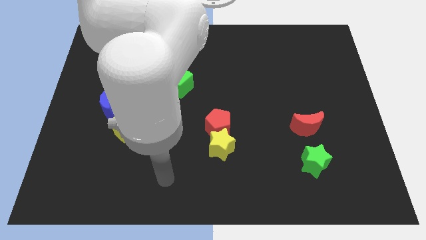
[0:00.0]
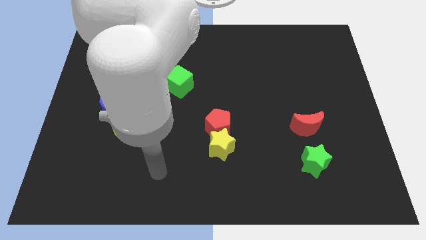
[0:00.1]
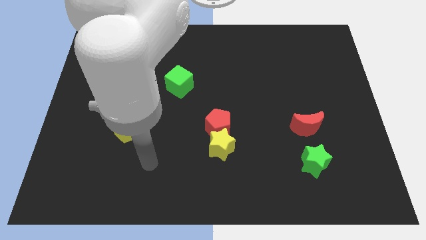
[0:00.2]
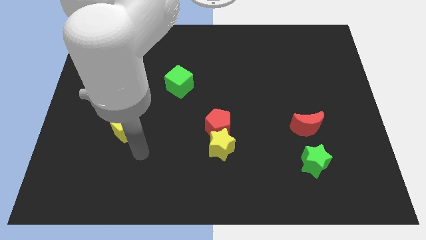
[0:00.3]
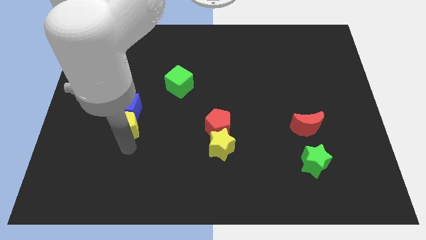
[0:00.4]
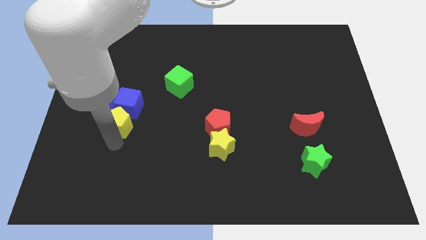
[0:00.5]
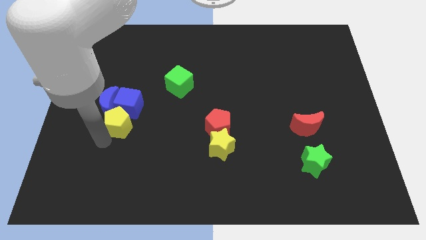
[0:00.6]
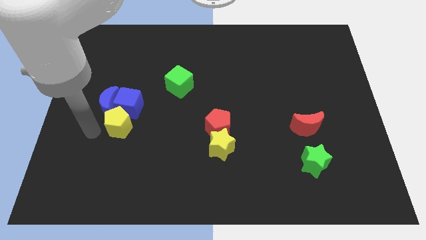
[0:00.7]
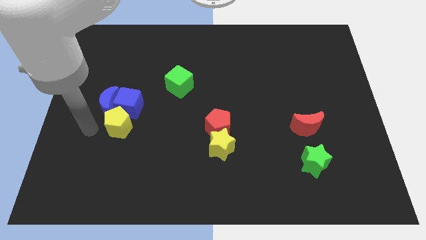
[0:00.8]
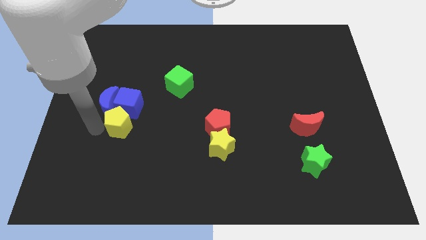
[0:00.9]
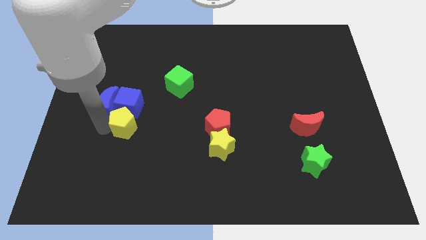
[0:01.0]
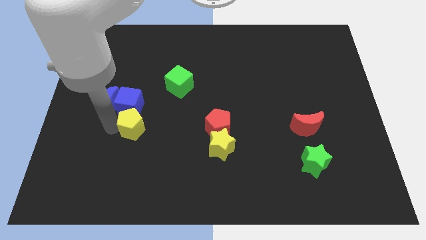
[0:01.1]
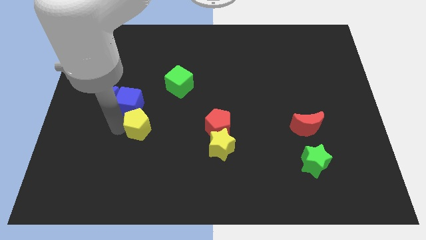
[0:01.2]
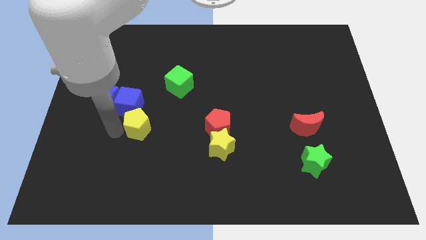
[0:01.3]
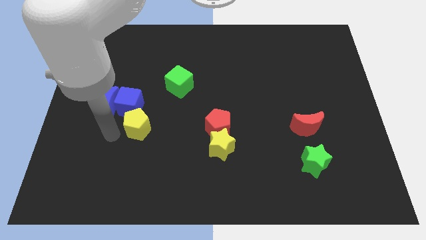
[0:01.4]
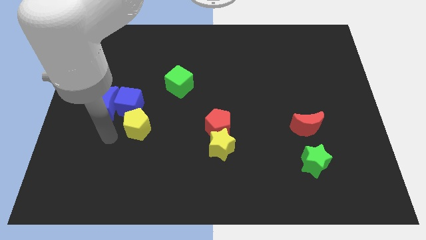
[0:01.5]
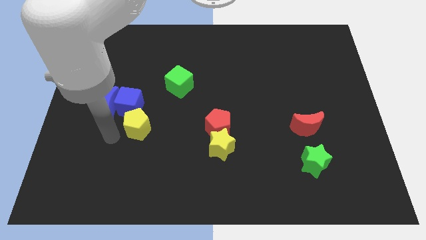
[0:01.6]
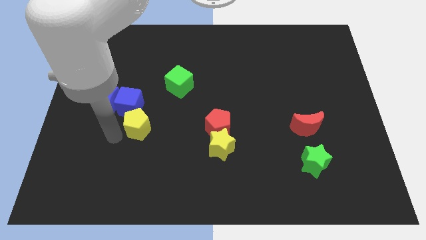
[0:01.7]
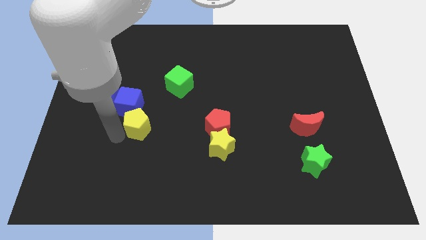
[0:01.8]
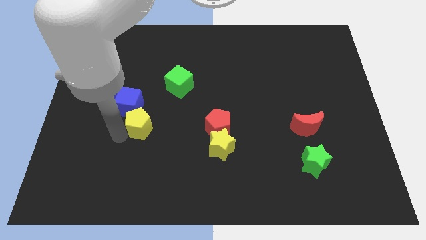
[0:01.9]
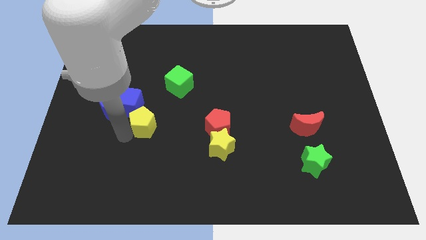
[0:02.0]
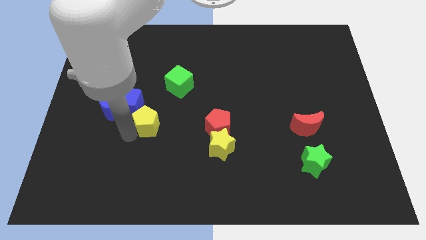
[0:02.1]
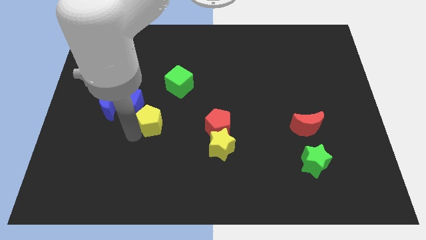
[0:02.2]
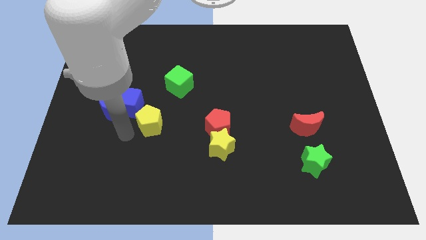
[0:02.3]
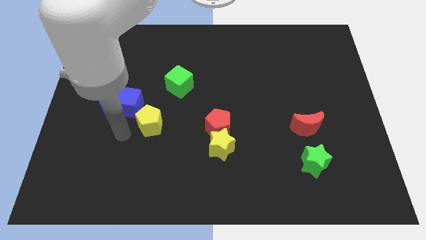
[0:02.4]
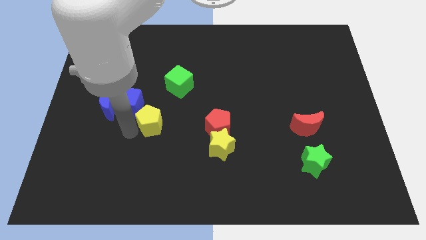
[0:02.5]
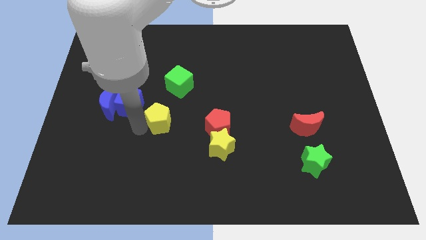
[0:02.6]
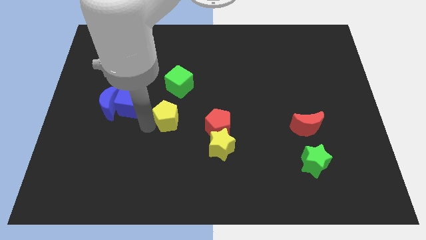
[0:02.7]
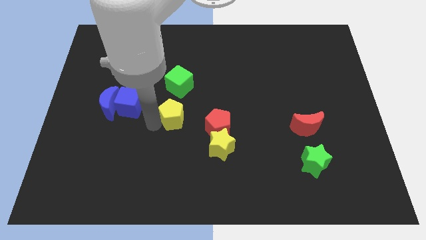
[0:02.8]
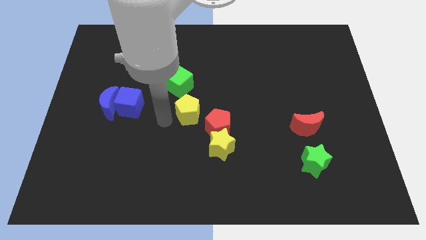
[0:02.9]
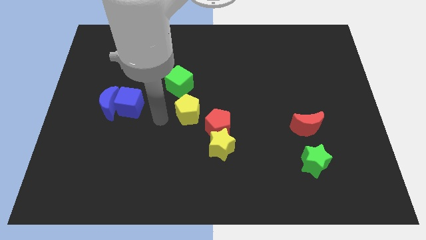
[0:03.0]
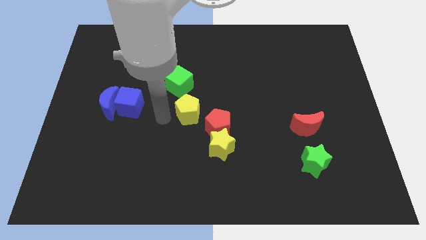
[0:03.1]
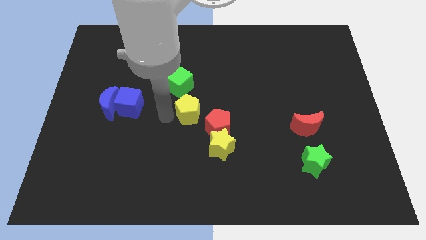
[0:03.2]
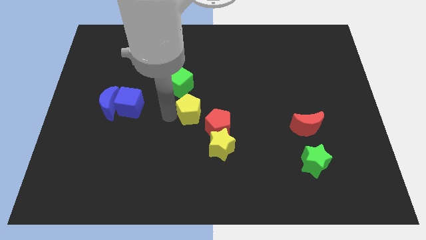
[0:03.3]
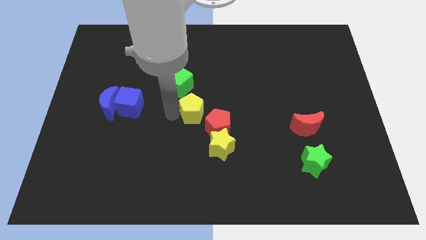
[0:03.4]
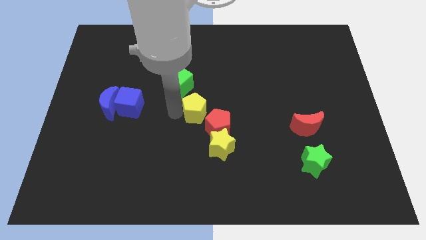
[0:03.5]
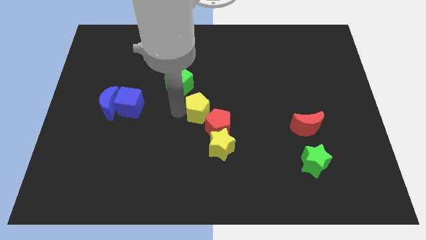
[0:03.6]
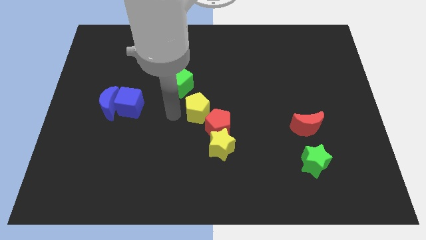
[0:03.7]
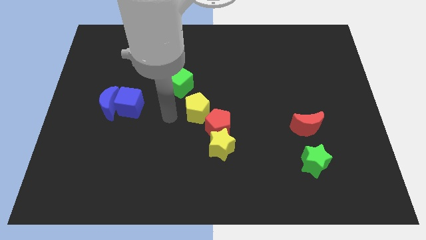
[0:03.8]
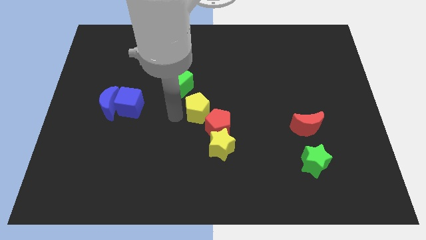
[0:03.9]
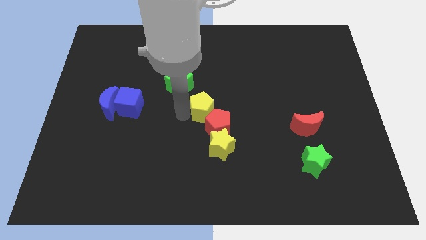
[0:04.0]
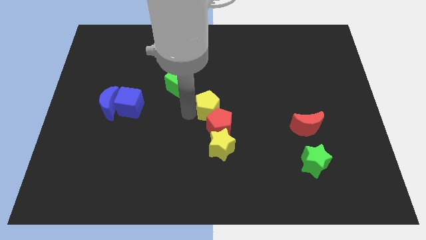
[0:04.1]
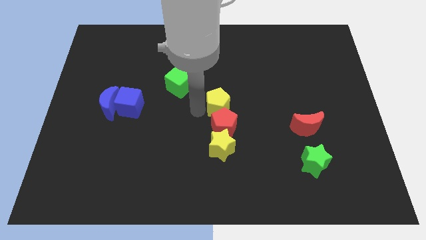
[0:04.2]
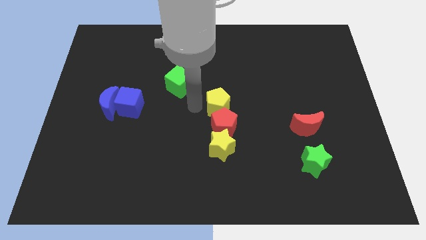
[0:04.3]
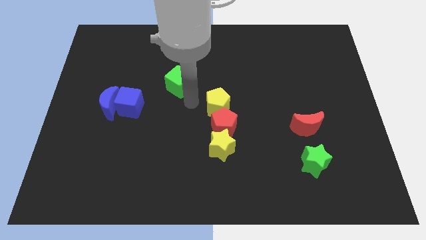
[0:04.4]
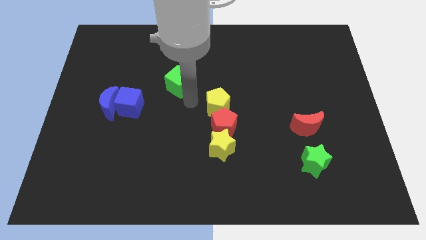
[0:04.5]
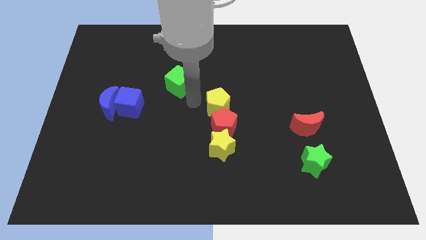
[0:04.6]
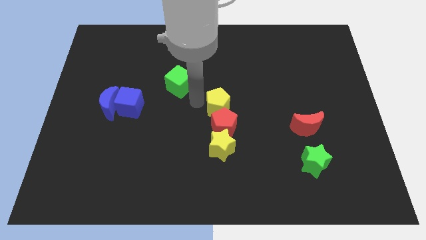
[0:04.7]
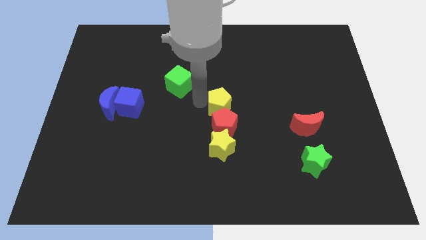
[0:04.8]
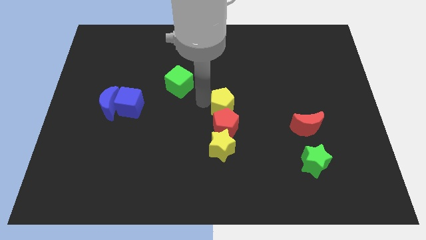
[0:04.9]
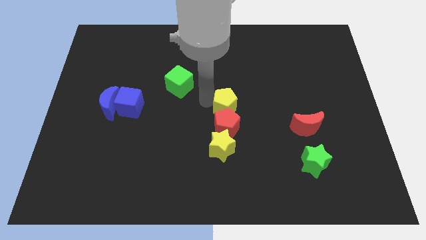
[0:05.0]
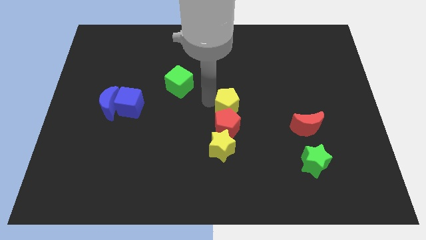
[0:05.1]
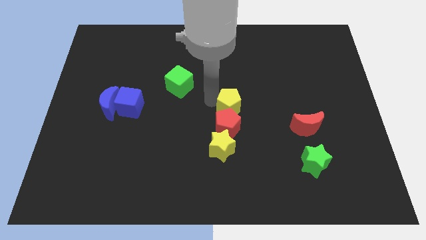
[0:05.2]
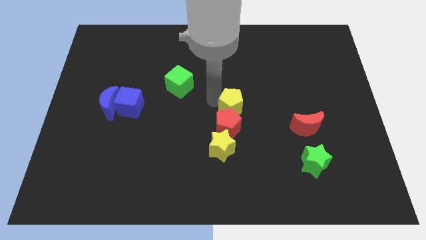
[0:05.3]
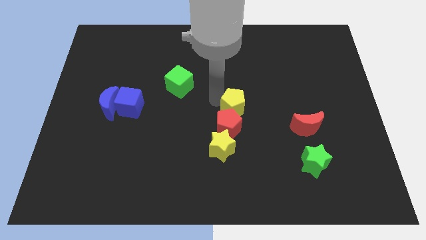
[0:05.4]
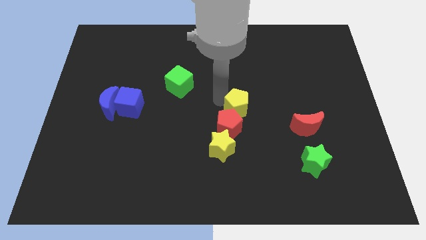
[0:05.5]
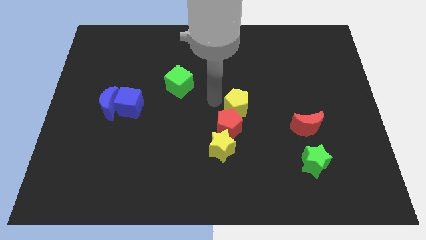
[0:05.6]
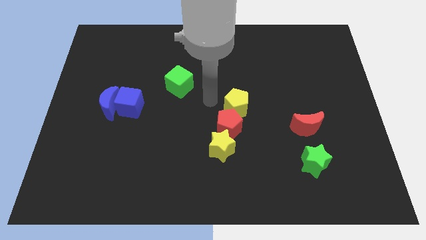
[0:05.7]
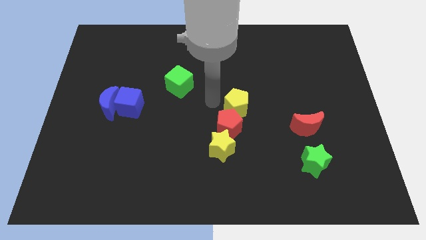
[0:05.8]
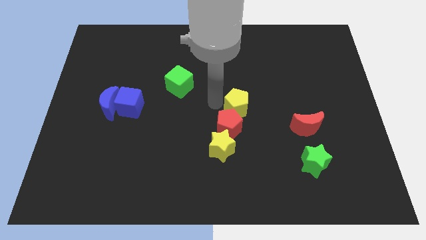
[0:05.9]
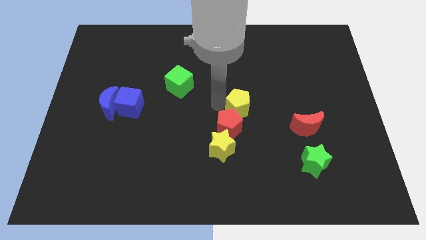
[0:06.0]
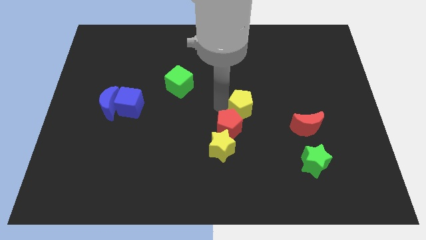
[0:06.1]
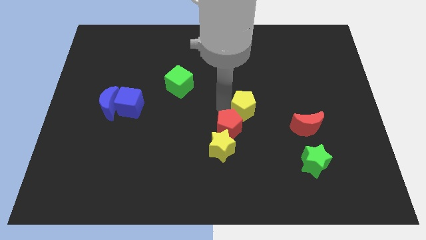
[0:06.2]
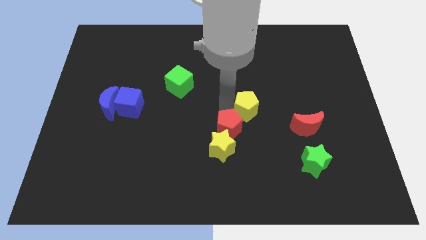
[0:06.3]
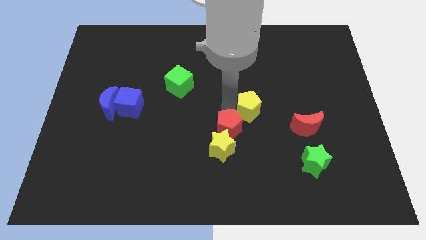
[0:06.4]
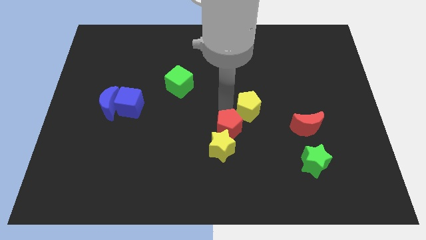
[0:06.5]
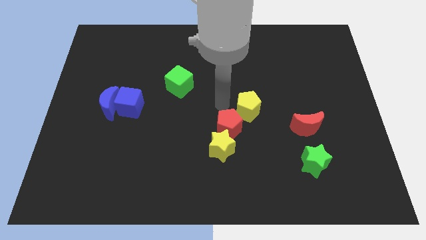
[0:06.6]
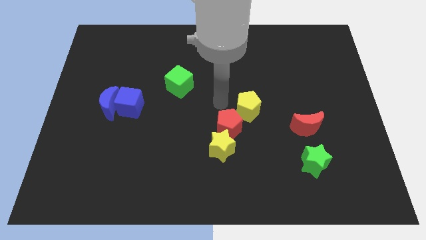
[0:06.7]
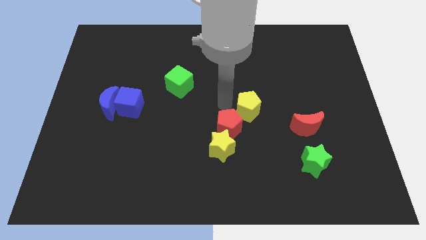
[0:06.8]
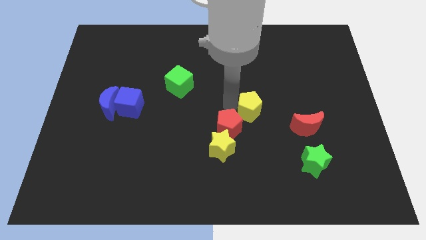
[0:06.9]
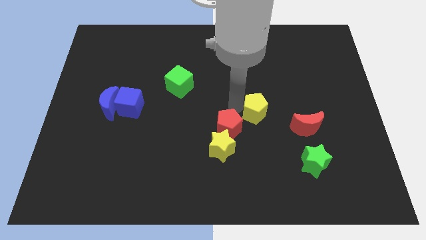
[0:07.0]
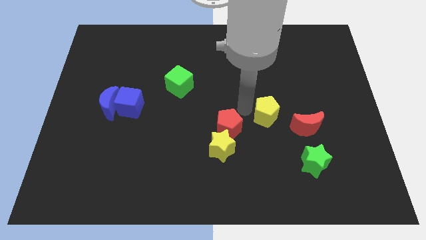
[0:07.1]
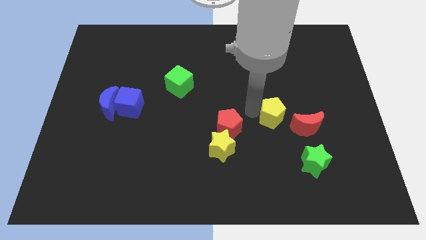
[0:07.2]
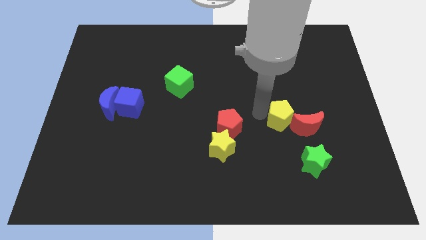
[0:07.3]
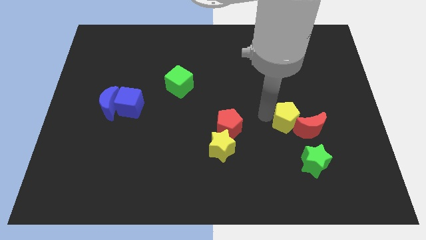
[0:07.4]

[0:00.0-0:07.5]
push the yellow pentagon next to the red moon

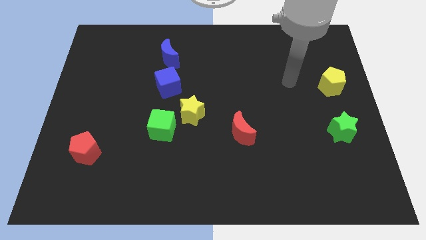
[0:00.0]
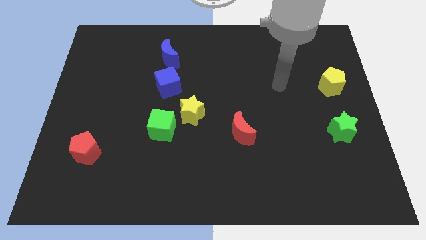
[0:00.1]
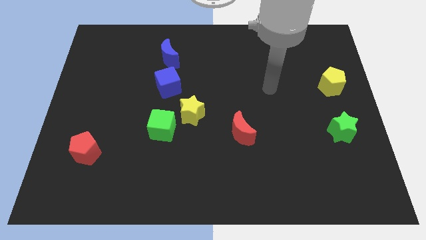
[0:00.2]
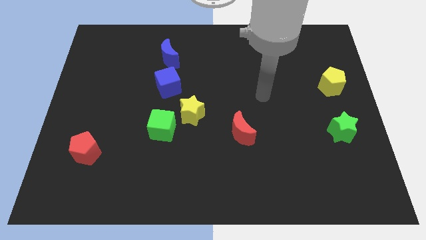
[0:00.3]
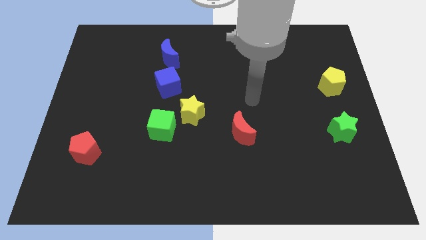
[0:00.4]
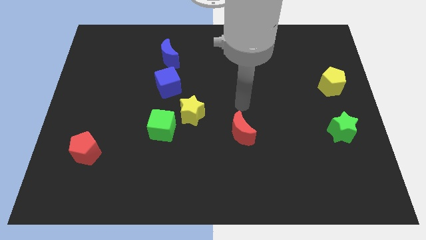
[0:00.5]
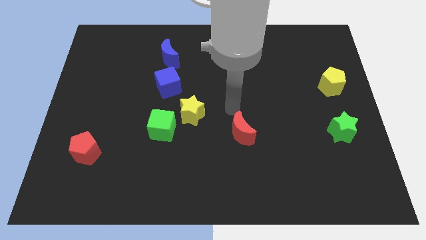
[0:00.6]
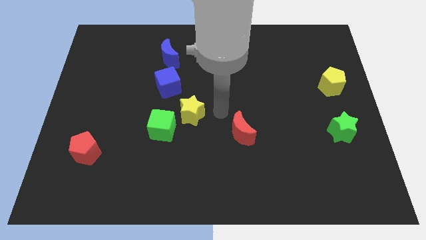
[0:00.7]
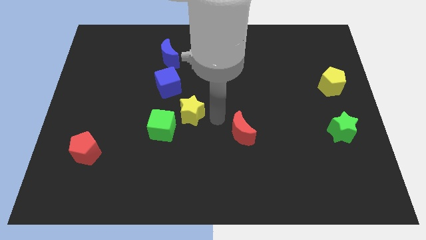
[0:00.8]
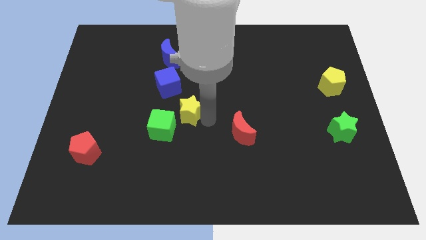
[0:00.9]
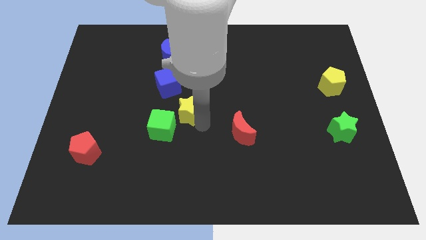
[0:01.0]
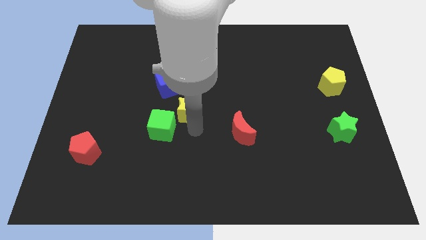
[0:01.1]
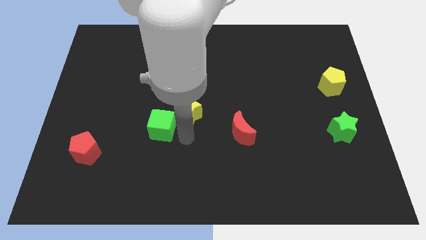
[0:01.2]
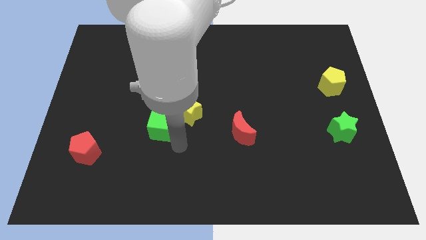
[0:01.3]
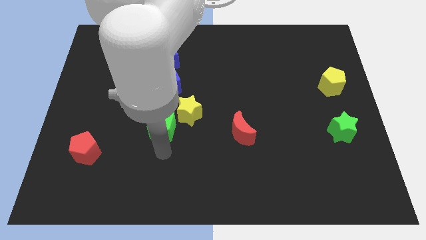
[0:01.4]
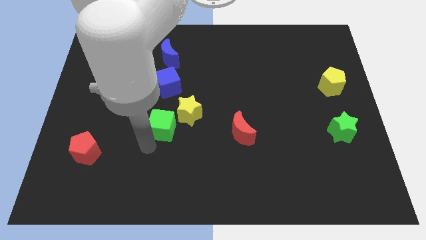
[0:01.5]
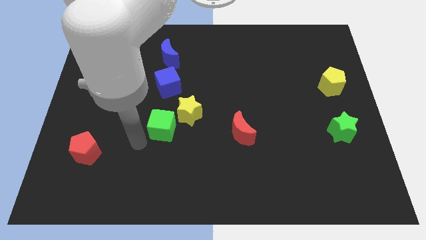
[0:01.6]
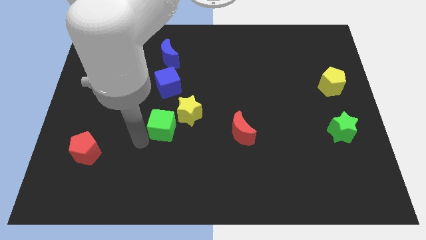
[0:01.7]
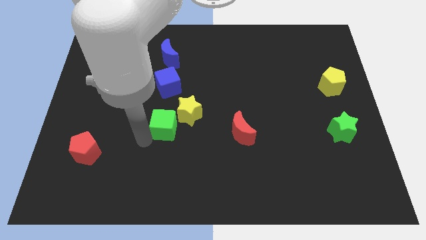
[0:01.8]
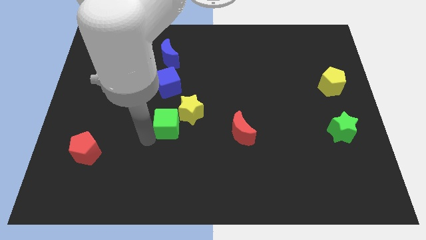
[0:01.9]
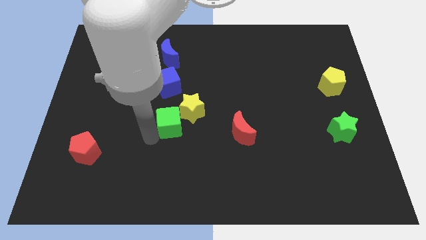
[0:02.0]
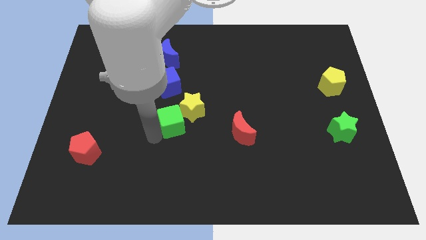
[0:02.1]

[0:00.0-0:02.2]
move the green cube towards the yellow star
